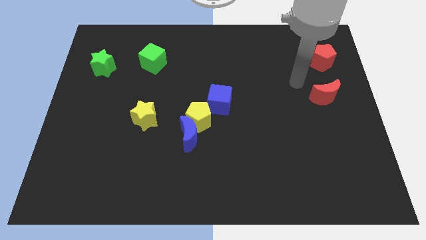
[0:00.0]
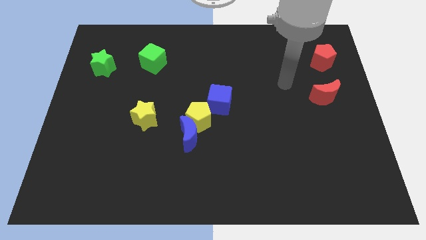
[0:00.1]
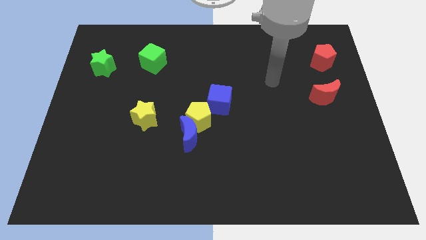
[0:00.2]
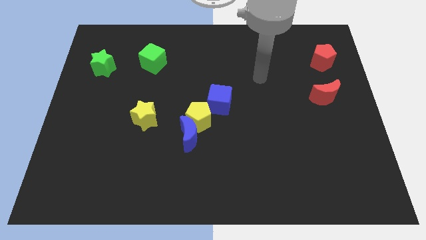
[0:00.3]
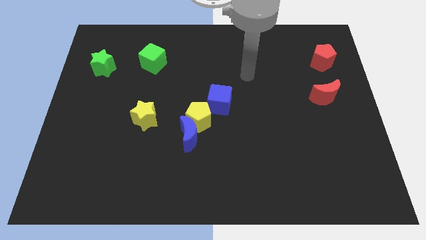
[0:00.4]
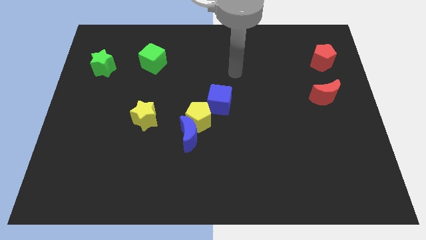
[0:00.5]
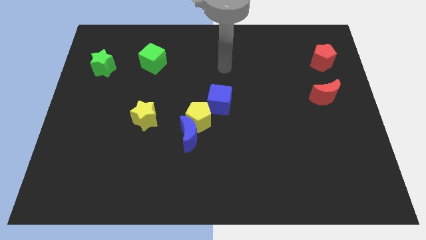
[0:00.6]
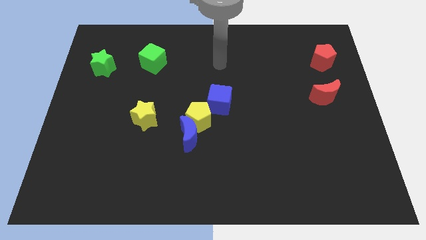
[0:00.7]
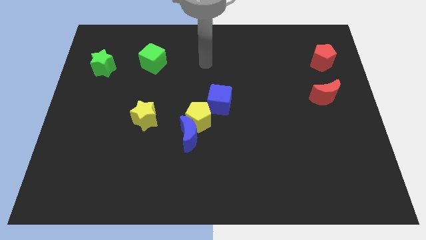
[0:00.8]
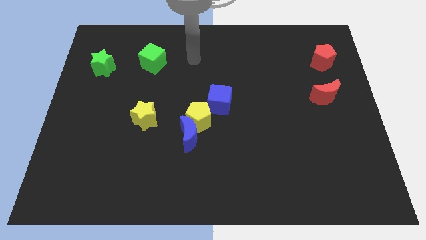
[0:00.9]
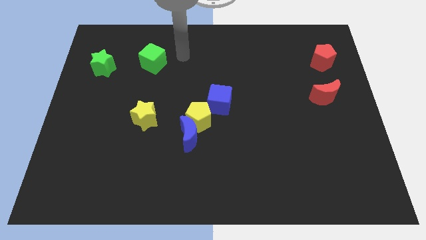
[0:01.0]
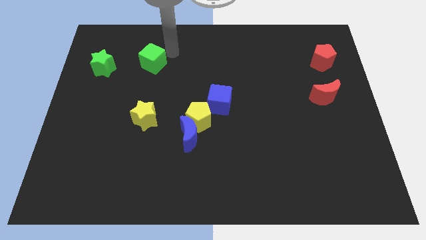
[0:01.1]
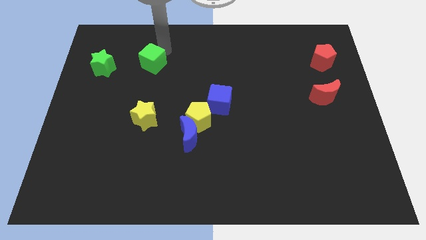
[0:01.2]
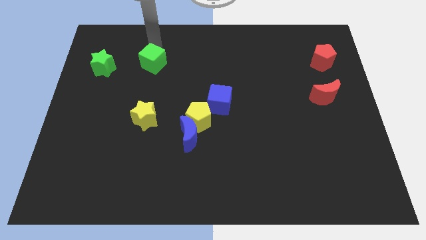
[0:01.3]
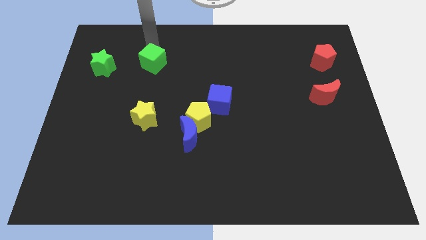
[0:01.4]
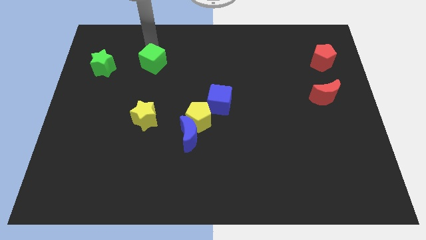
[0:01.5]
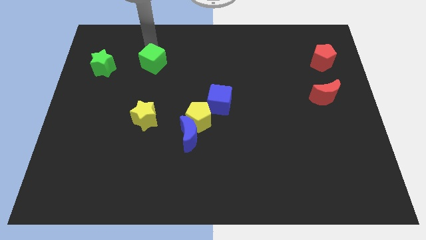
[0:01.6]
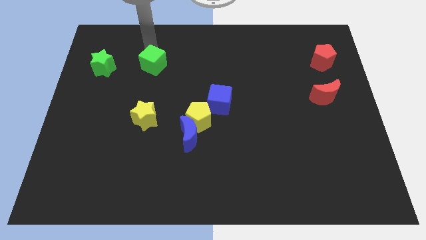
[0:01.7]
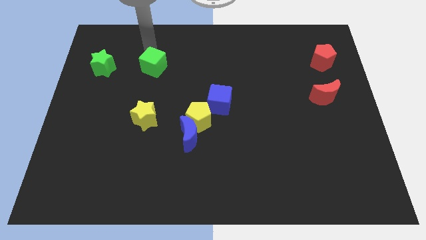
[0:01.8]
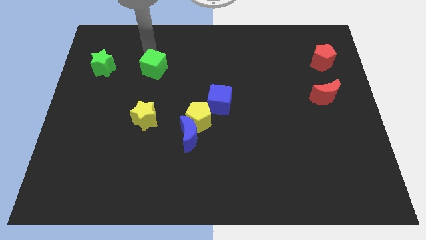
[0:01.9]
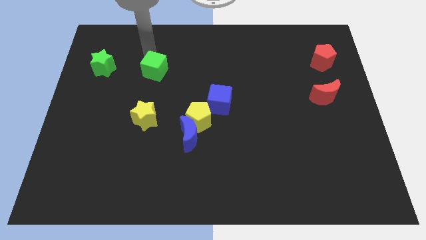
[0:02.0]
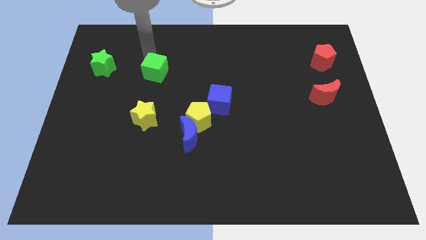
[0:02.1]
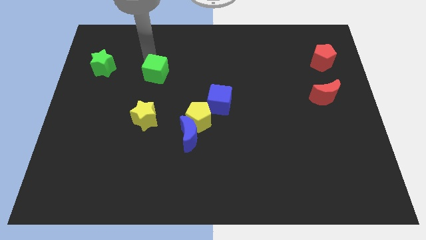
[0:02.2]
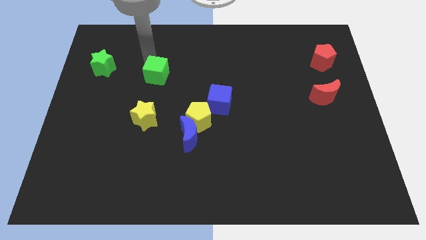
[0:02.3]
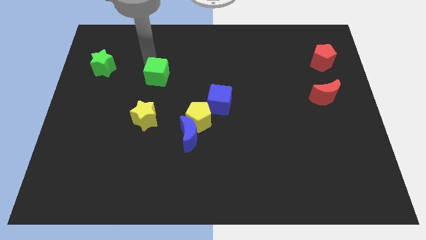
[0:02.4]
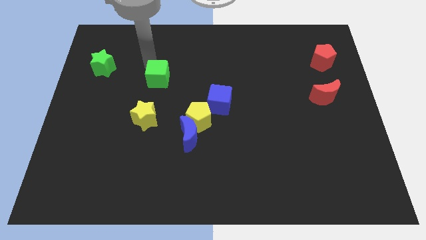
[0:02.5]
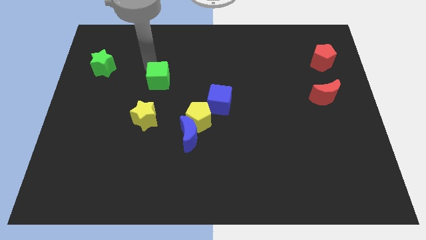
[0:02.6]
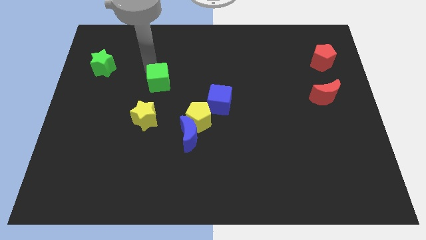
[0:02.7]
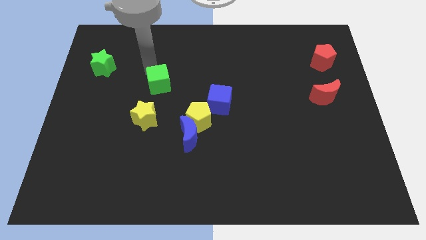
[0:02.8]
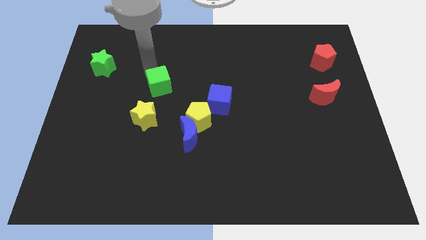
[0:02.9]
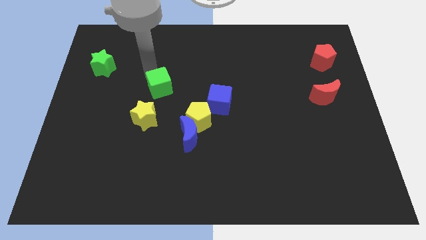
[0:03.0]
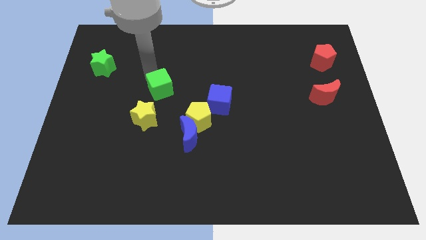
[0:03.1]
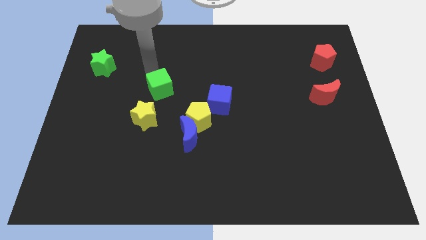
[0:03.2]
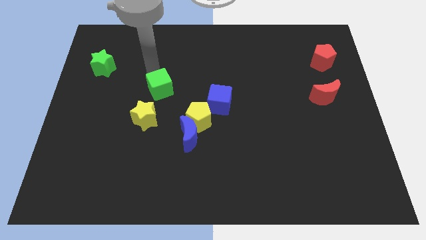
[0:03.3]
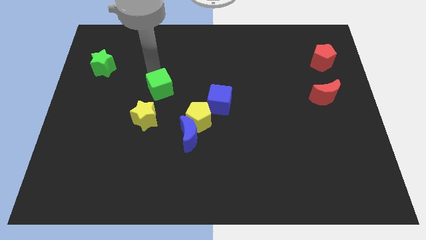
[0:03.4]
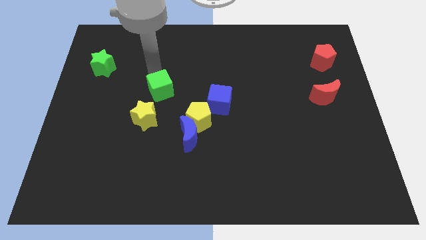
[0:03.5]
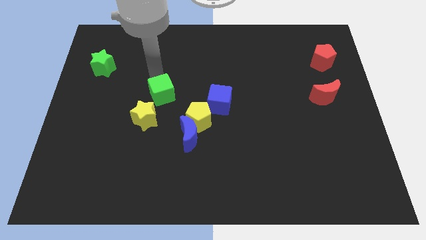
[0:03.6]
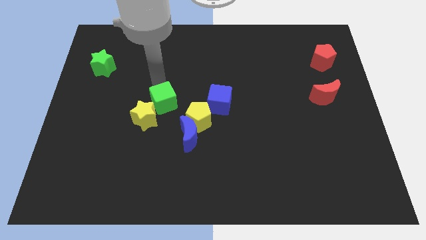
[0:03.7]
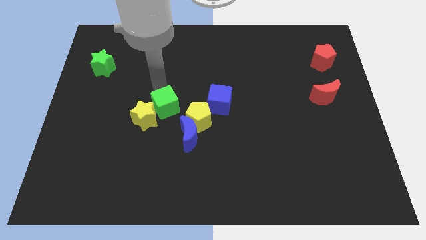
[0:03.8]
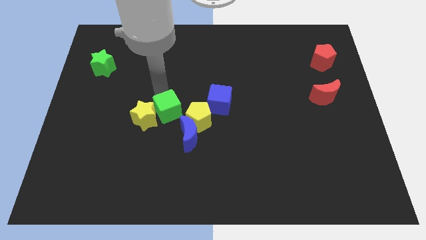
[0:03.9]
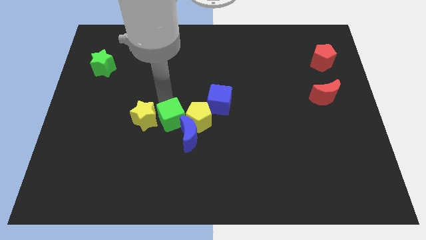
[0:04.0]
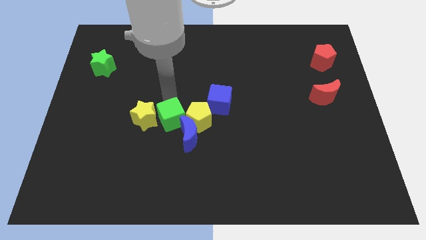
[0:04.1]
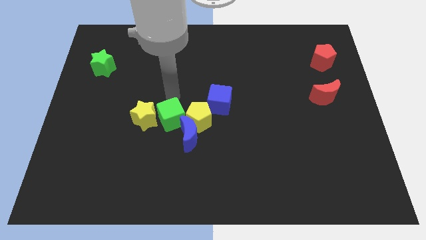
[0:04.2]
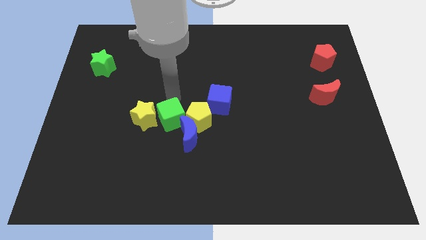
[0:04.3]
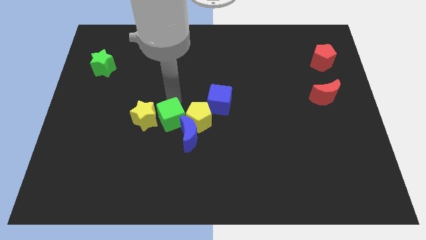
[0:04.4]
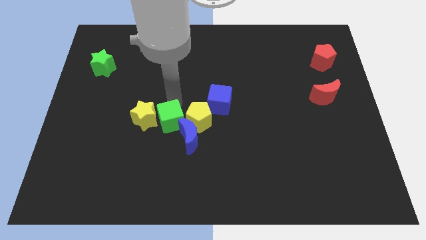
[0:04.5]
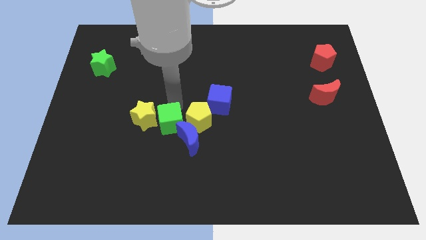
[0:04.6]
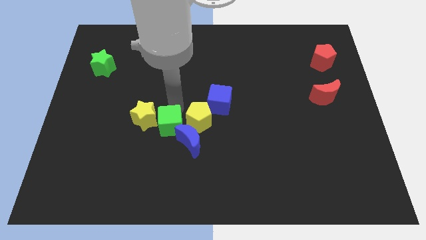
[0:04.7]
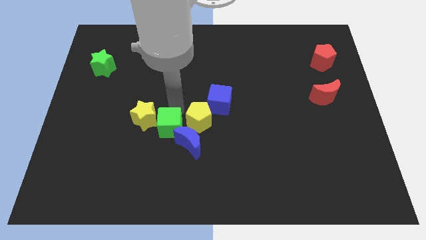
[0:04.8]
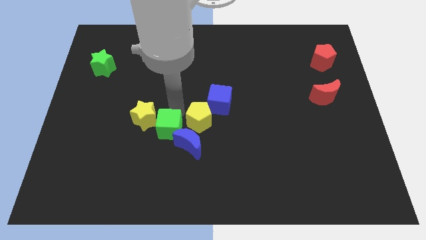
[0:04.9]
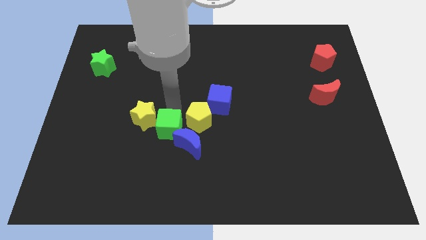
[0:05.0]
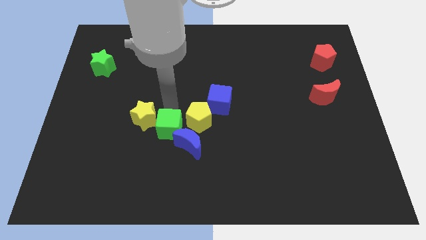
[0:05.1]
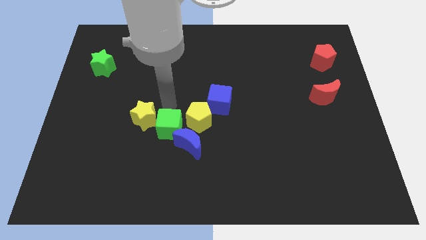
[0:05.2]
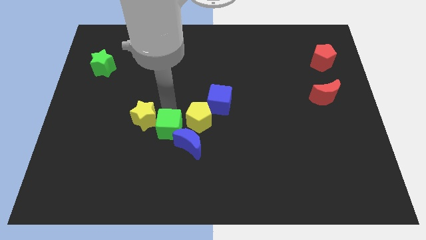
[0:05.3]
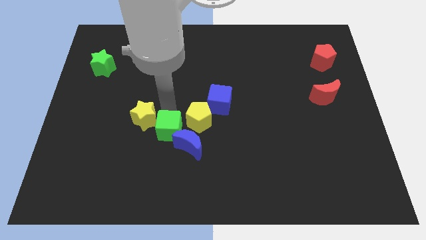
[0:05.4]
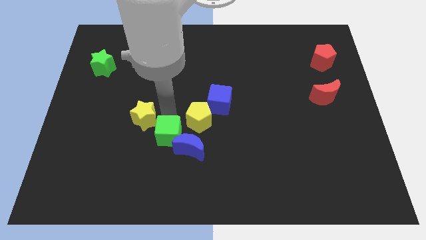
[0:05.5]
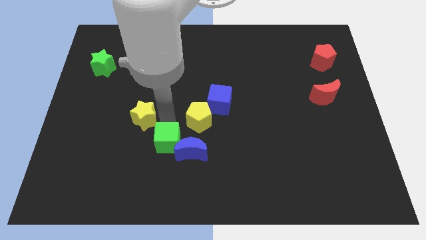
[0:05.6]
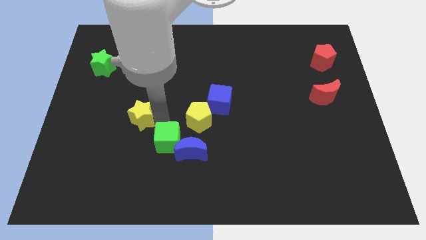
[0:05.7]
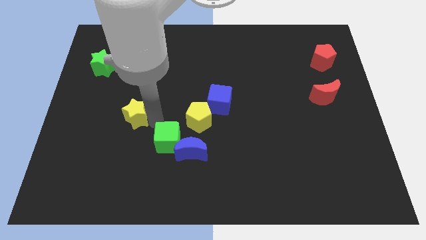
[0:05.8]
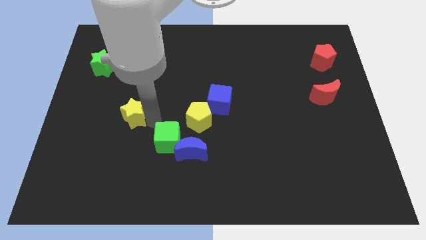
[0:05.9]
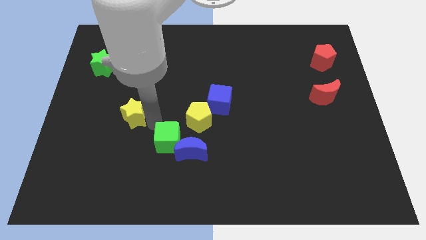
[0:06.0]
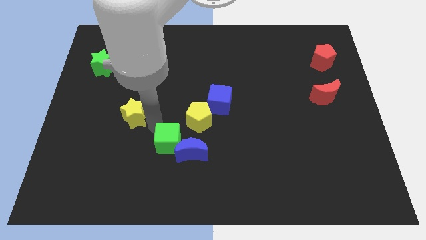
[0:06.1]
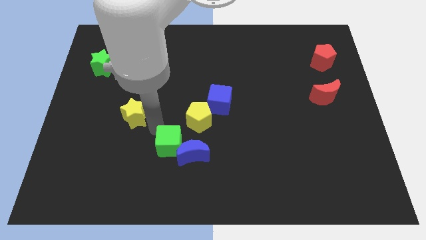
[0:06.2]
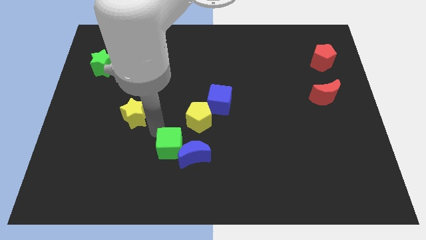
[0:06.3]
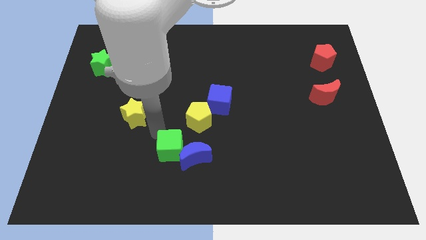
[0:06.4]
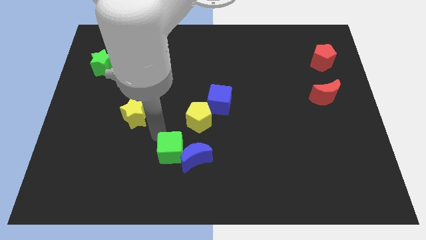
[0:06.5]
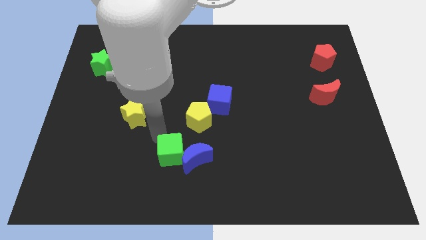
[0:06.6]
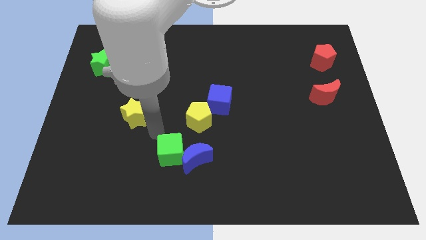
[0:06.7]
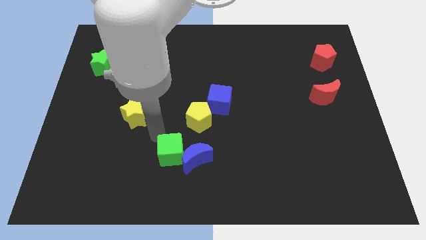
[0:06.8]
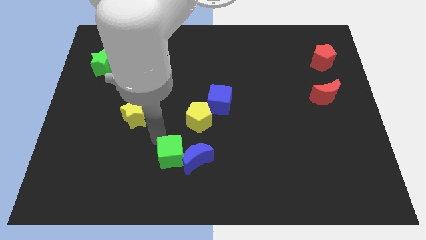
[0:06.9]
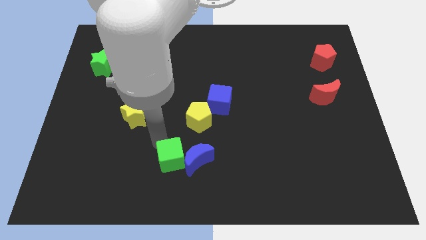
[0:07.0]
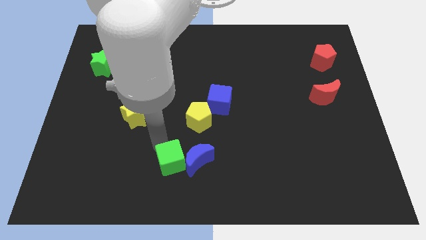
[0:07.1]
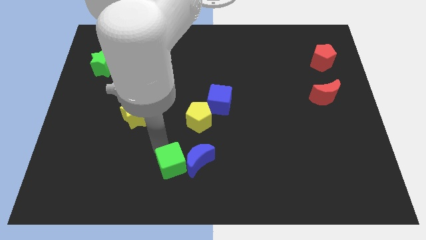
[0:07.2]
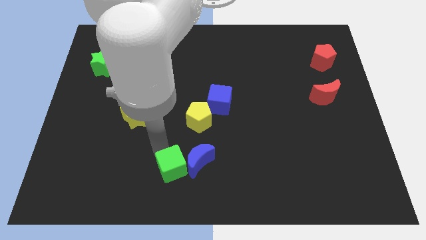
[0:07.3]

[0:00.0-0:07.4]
move the green cube to the bottom side
